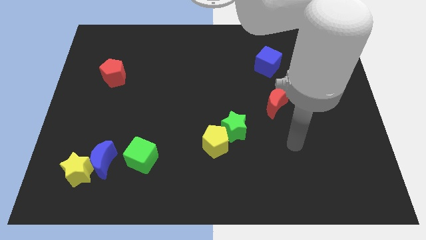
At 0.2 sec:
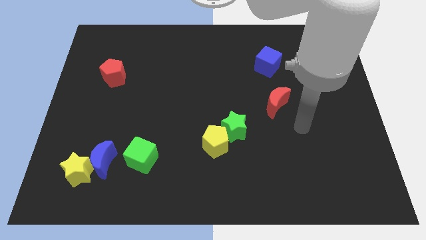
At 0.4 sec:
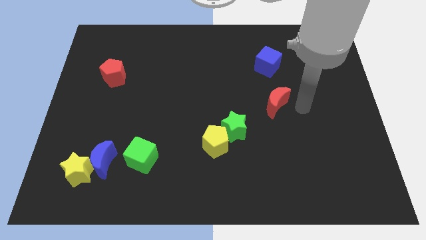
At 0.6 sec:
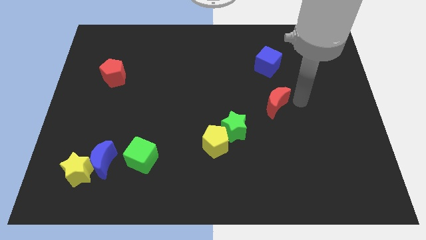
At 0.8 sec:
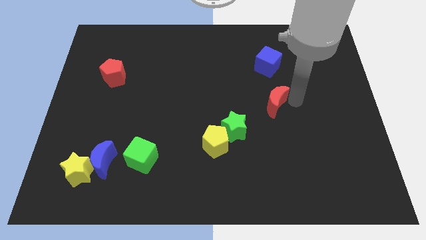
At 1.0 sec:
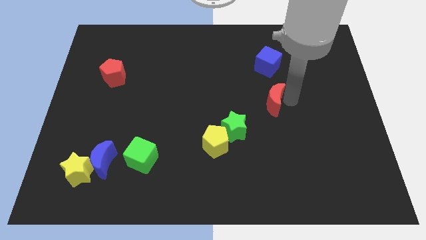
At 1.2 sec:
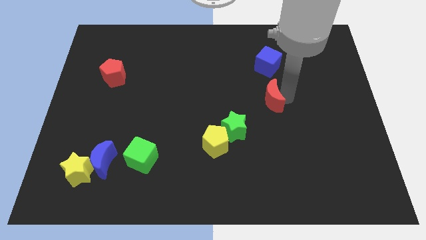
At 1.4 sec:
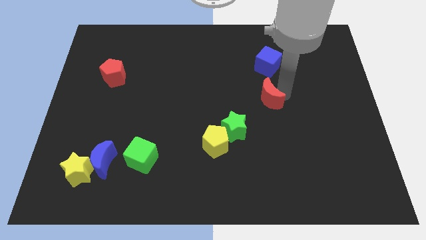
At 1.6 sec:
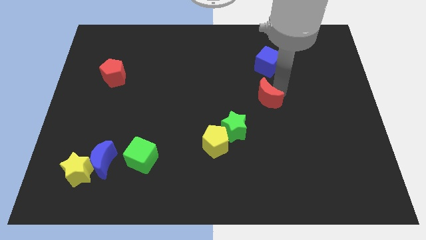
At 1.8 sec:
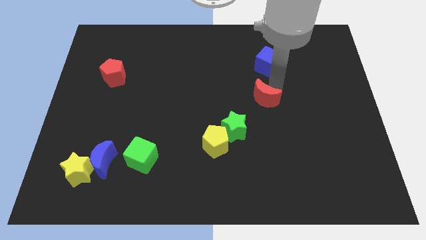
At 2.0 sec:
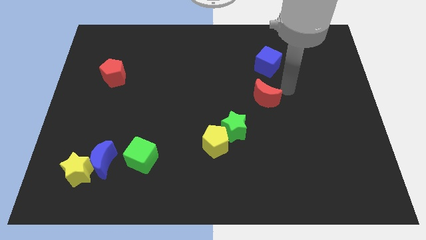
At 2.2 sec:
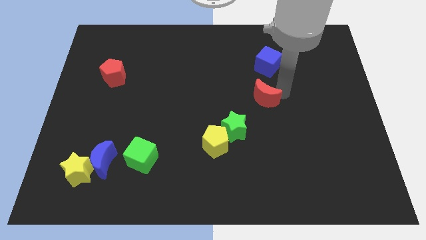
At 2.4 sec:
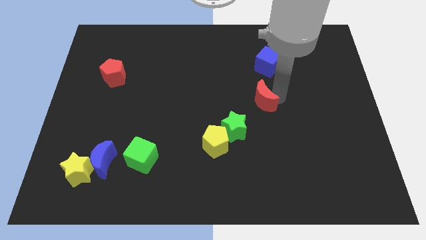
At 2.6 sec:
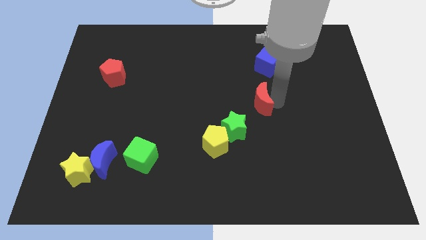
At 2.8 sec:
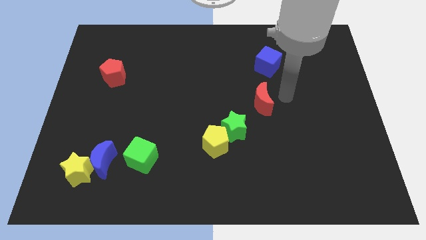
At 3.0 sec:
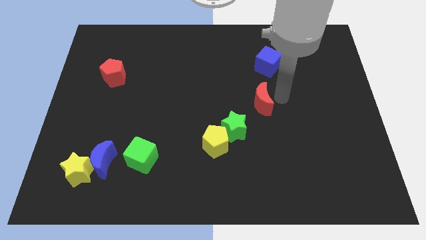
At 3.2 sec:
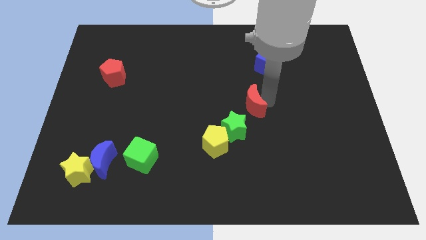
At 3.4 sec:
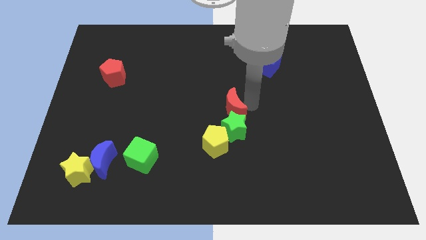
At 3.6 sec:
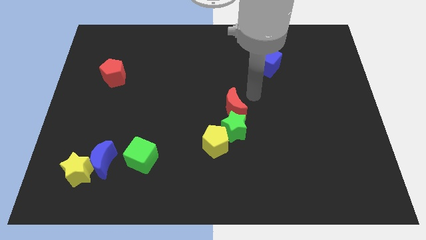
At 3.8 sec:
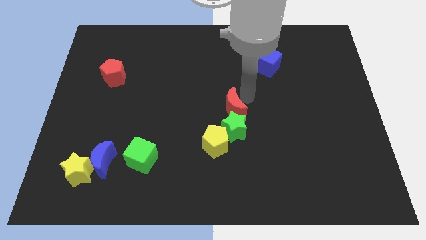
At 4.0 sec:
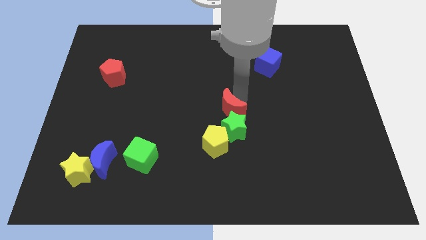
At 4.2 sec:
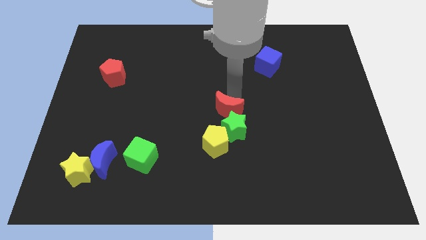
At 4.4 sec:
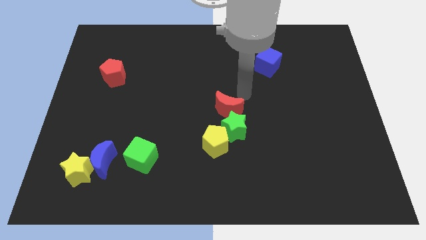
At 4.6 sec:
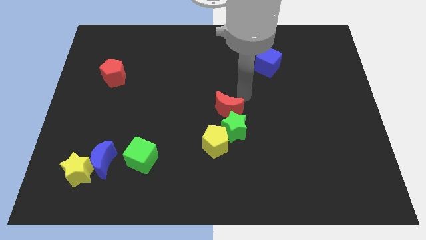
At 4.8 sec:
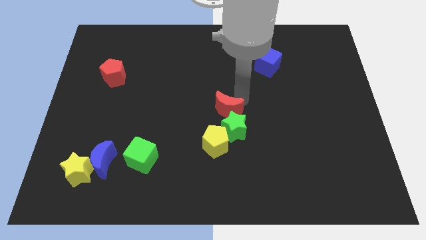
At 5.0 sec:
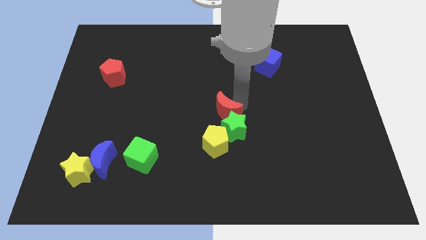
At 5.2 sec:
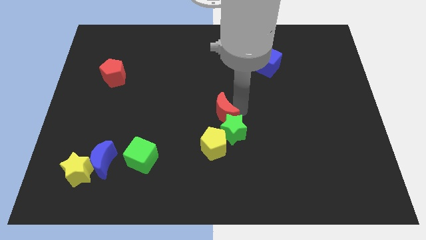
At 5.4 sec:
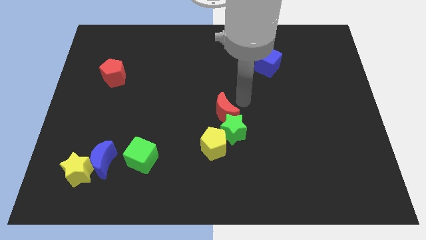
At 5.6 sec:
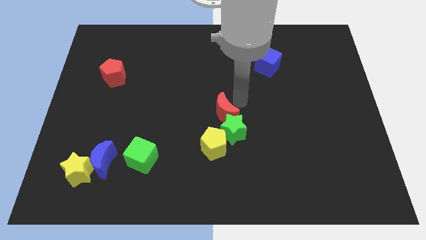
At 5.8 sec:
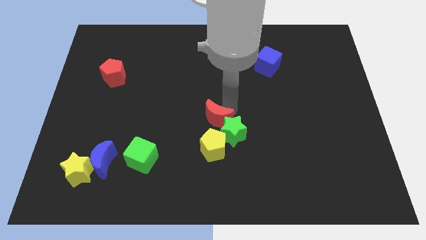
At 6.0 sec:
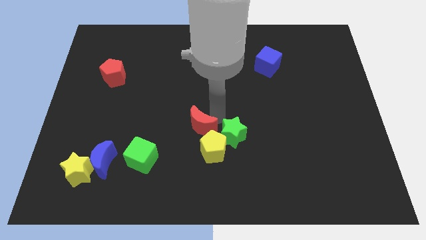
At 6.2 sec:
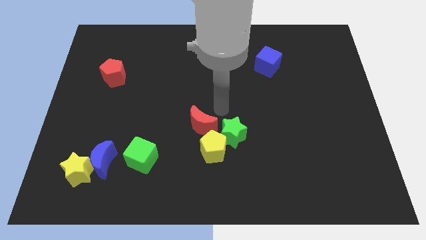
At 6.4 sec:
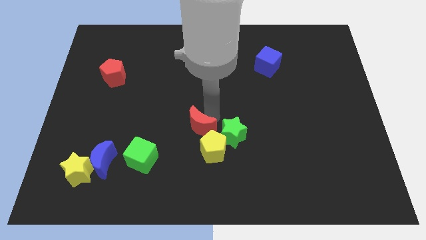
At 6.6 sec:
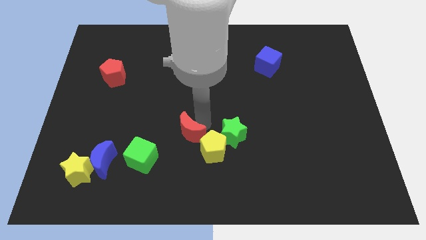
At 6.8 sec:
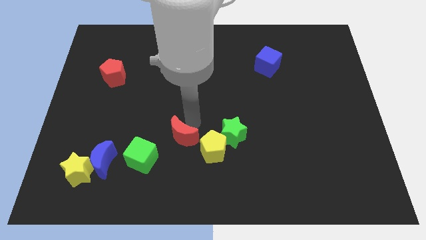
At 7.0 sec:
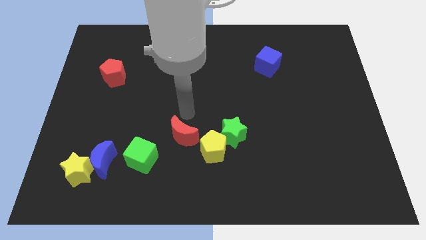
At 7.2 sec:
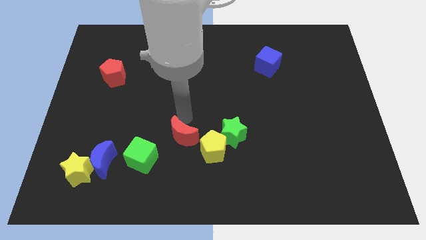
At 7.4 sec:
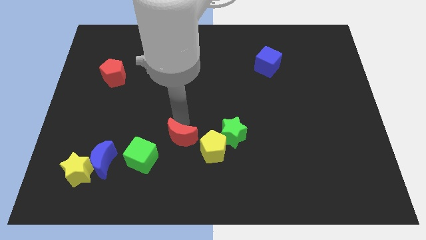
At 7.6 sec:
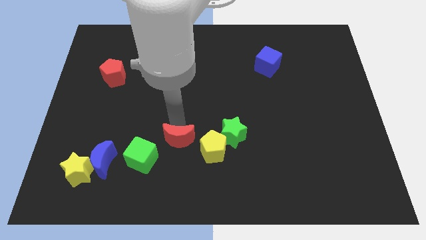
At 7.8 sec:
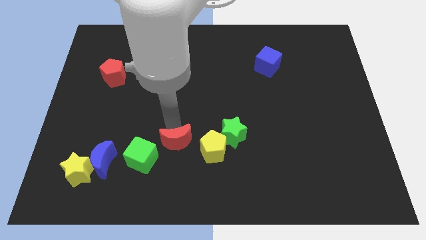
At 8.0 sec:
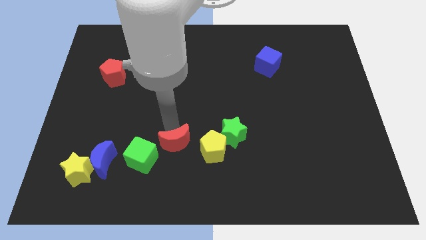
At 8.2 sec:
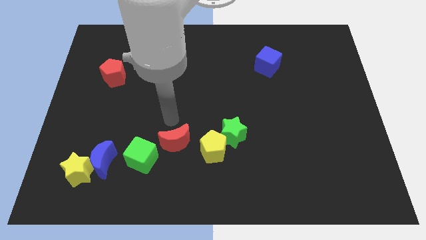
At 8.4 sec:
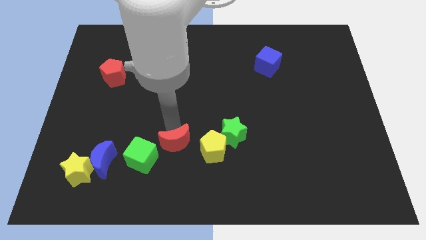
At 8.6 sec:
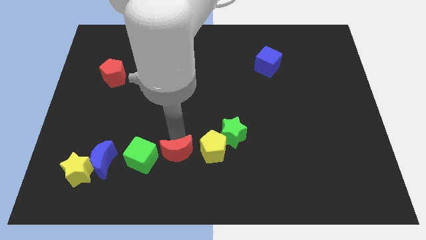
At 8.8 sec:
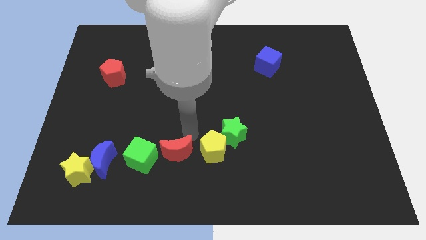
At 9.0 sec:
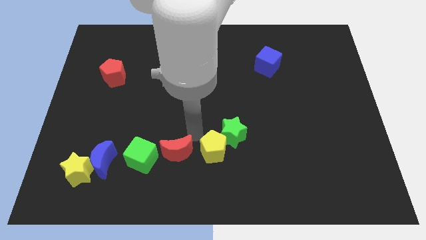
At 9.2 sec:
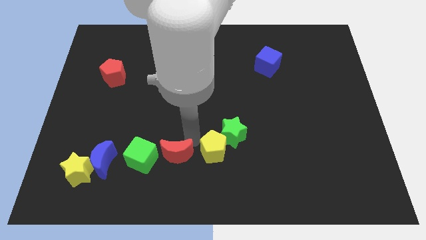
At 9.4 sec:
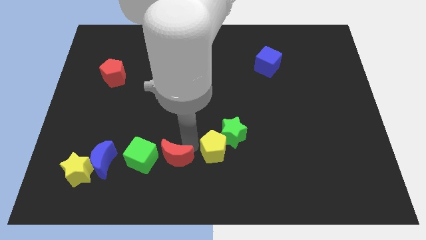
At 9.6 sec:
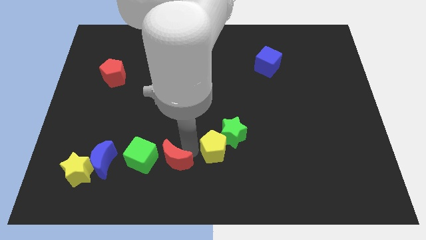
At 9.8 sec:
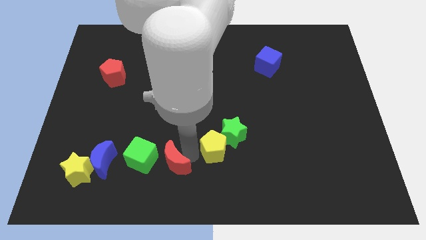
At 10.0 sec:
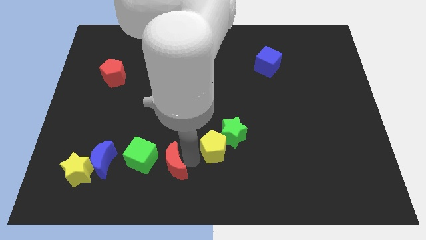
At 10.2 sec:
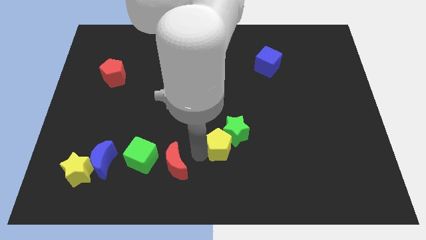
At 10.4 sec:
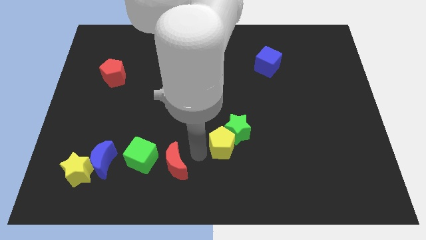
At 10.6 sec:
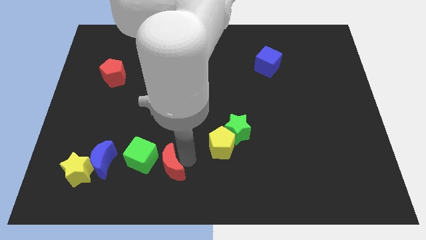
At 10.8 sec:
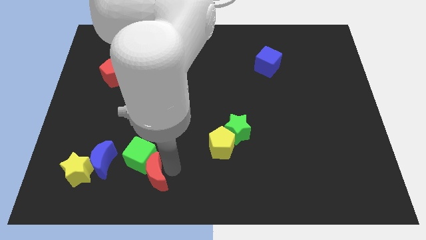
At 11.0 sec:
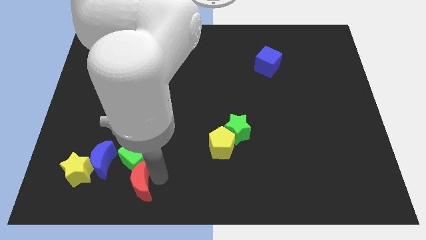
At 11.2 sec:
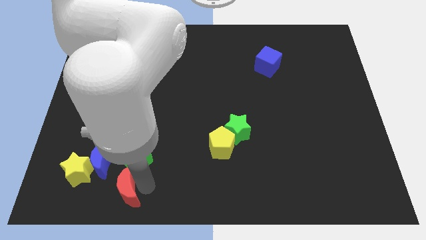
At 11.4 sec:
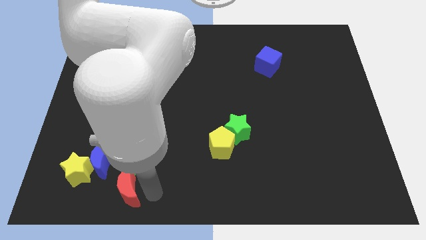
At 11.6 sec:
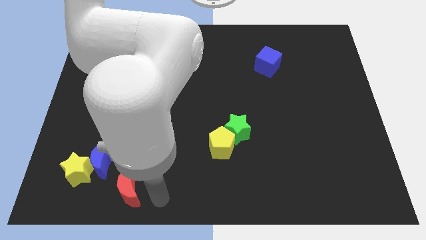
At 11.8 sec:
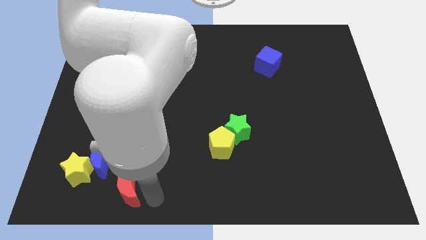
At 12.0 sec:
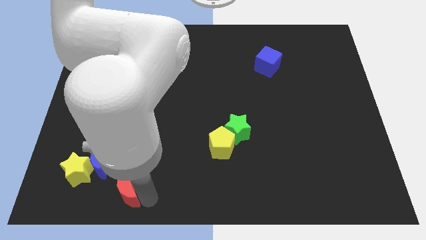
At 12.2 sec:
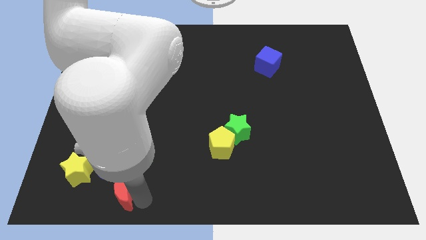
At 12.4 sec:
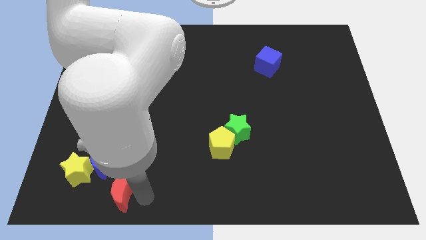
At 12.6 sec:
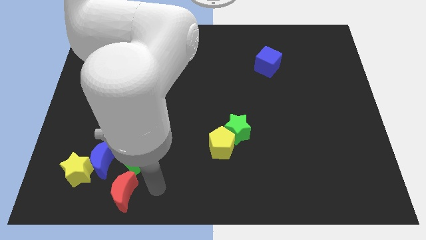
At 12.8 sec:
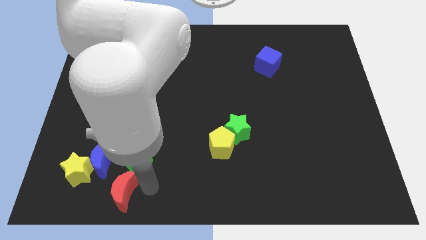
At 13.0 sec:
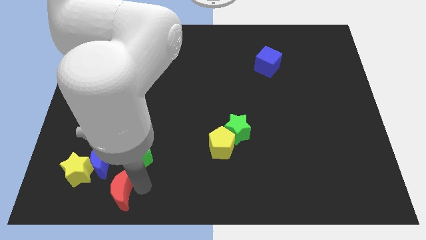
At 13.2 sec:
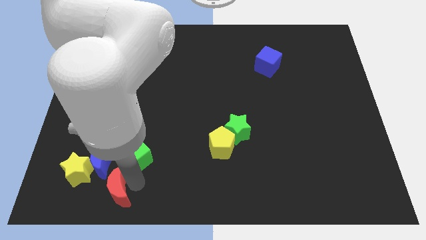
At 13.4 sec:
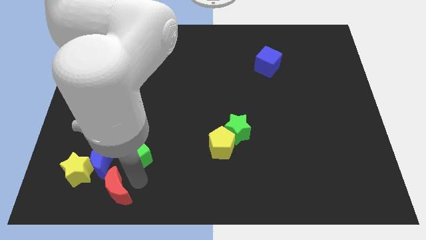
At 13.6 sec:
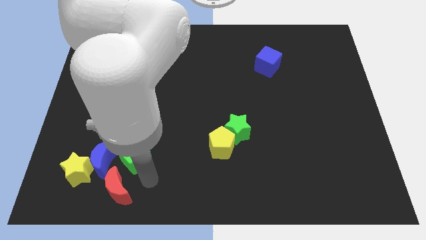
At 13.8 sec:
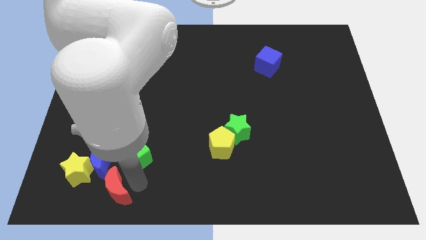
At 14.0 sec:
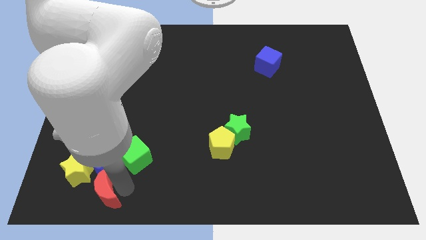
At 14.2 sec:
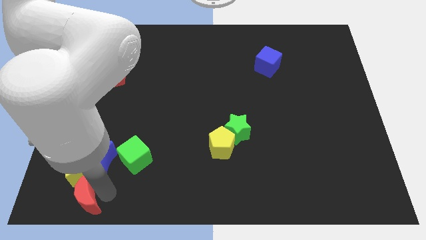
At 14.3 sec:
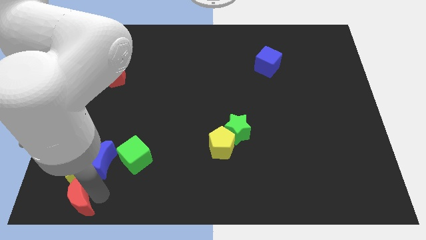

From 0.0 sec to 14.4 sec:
move the red moon to the bottom left of the board
